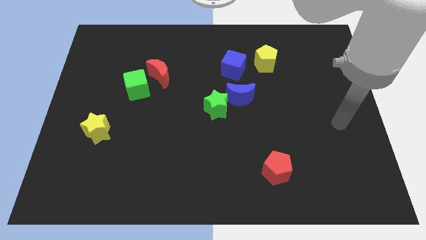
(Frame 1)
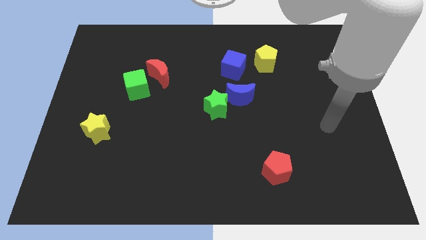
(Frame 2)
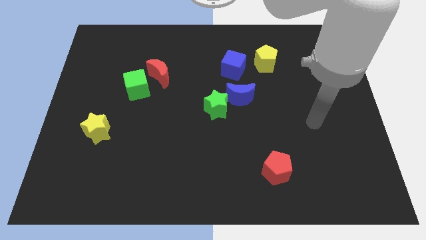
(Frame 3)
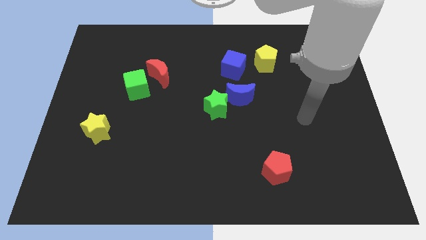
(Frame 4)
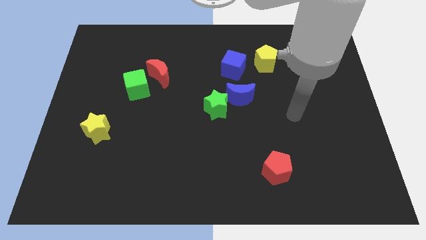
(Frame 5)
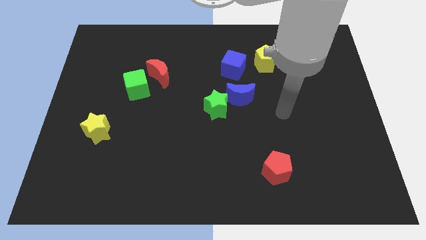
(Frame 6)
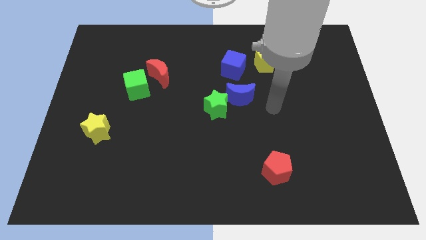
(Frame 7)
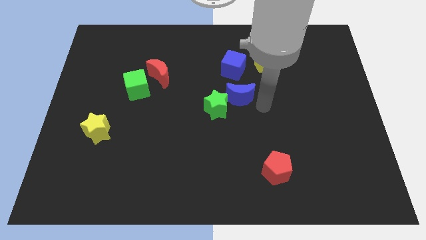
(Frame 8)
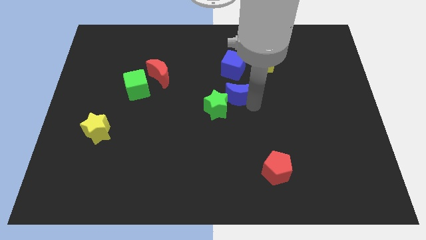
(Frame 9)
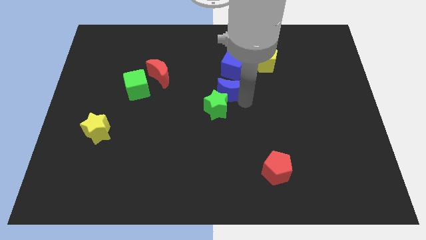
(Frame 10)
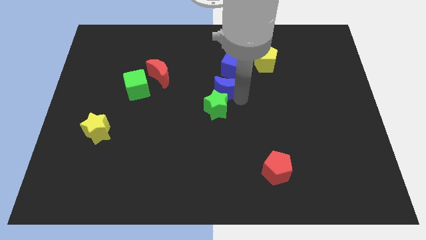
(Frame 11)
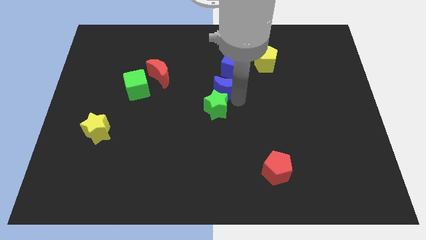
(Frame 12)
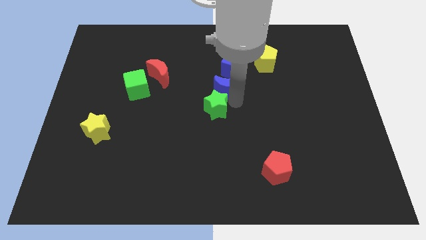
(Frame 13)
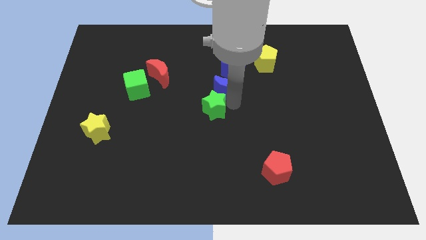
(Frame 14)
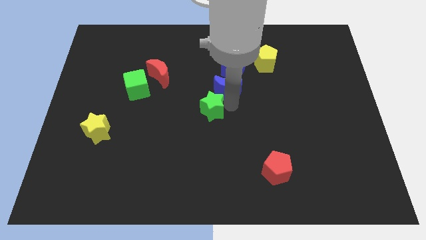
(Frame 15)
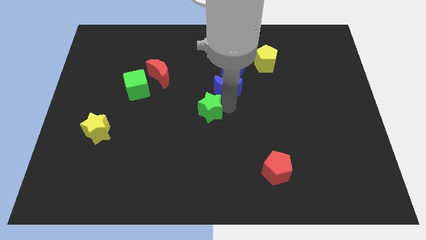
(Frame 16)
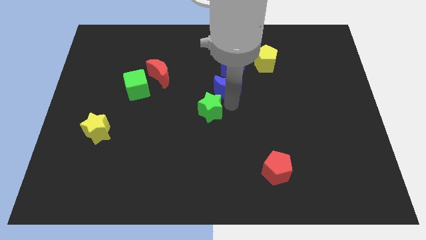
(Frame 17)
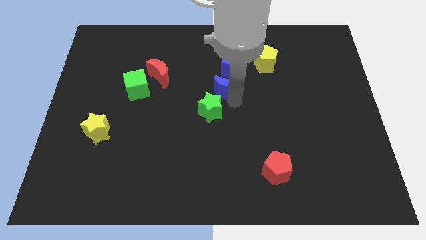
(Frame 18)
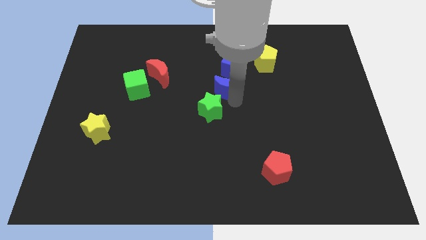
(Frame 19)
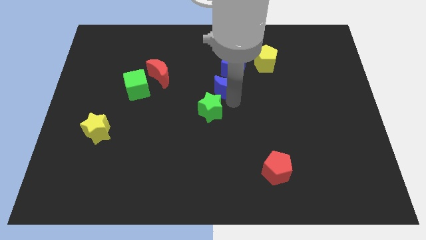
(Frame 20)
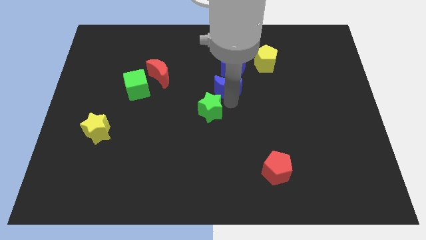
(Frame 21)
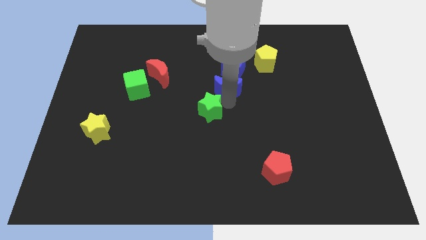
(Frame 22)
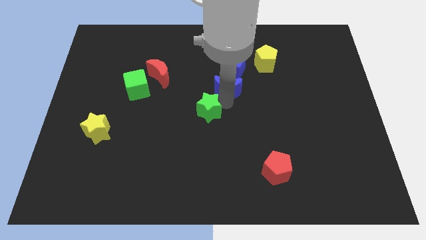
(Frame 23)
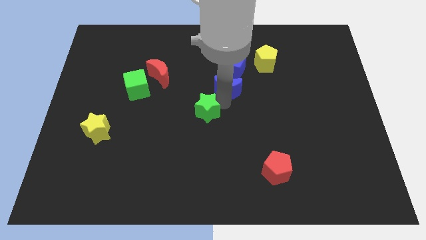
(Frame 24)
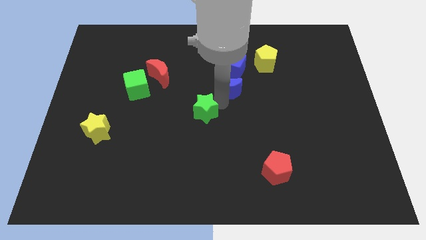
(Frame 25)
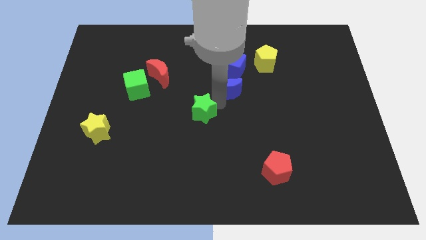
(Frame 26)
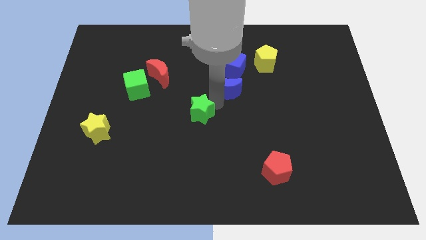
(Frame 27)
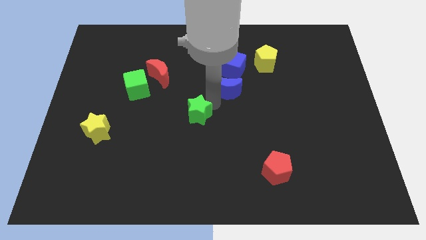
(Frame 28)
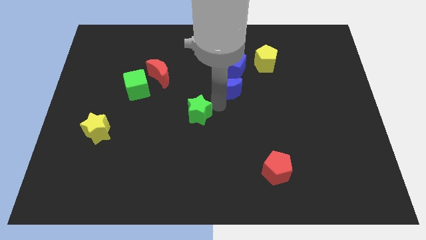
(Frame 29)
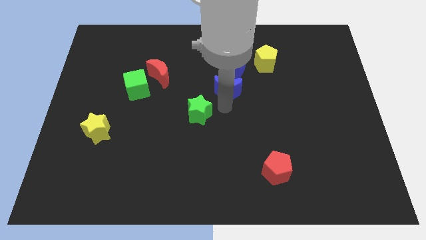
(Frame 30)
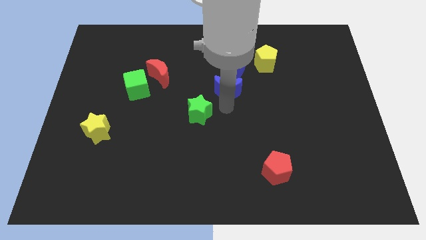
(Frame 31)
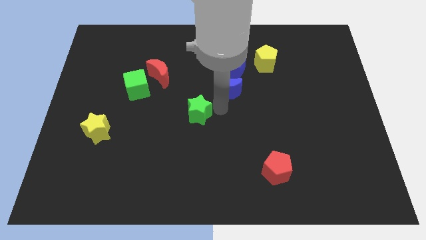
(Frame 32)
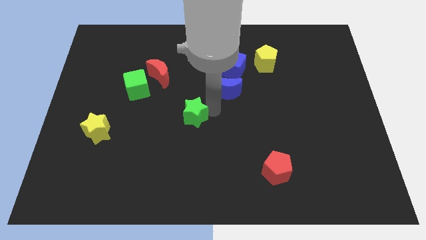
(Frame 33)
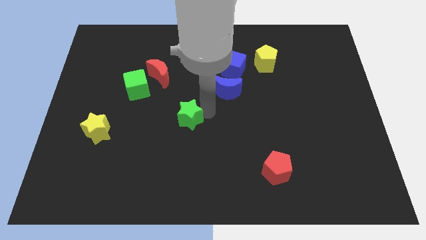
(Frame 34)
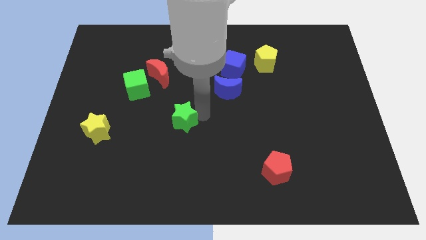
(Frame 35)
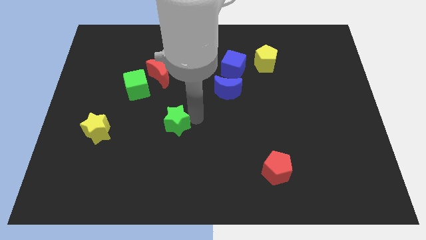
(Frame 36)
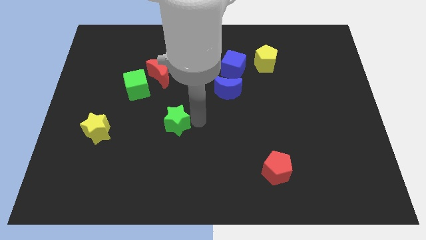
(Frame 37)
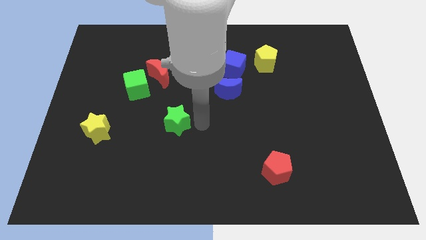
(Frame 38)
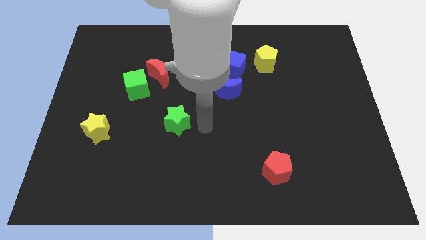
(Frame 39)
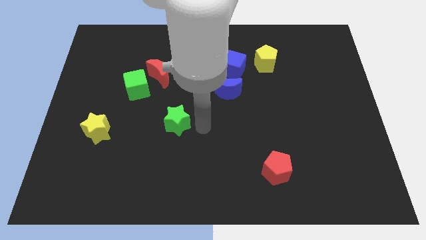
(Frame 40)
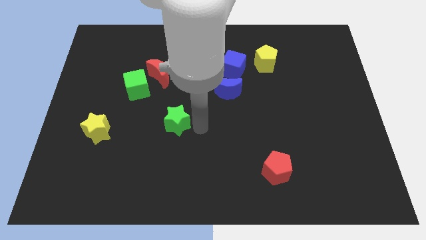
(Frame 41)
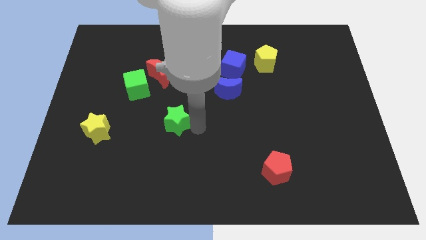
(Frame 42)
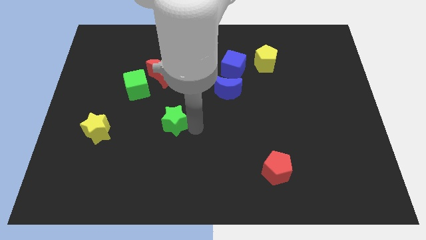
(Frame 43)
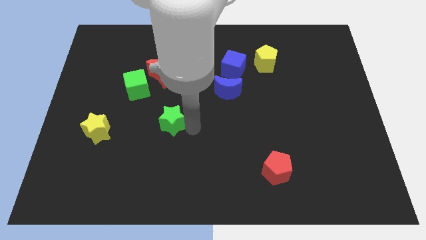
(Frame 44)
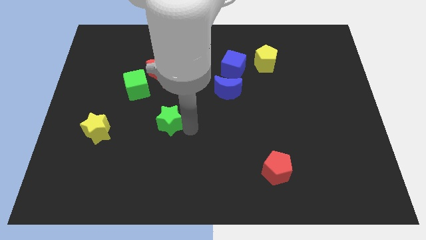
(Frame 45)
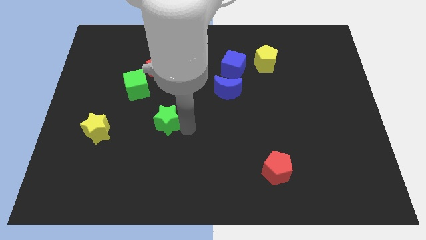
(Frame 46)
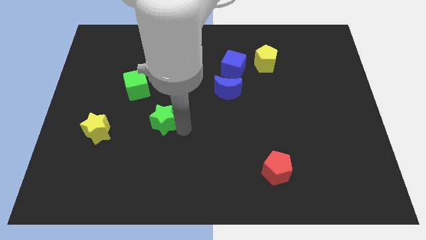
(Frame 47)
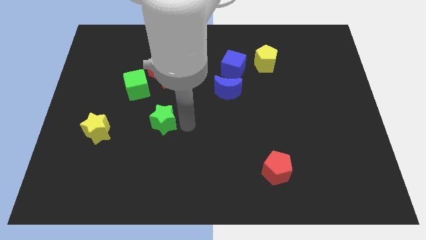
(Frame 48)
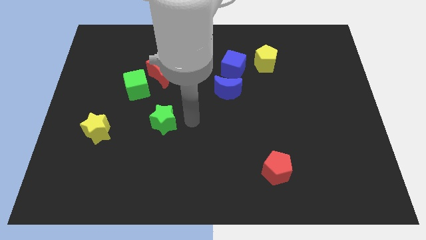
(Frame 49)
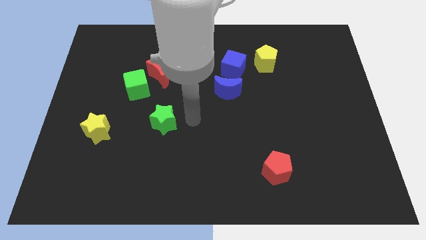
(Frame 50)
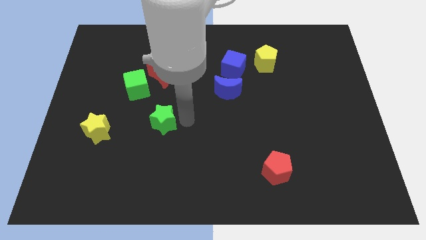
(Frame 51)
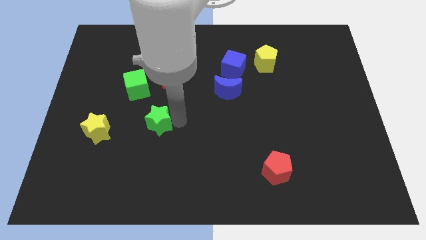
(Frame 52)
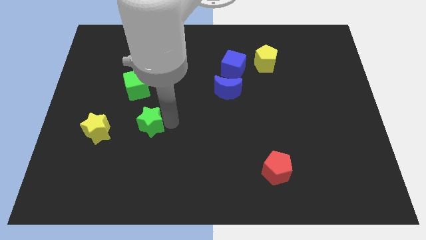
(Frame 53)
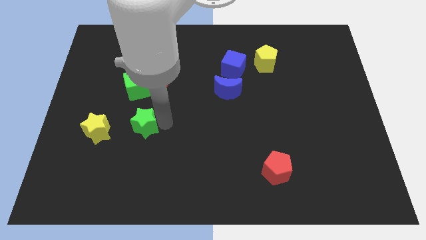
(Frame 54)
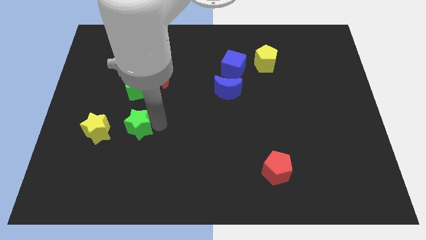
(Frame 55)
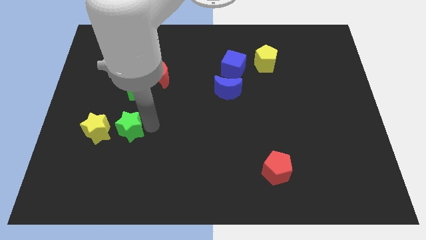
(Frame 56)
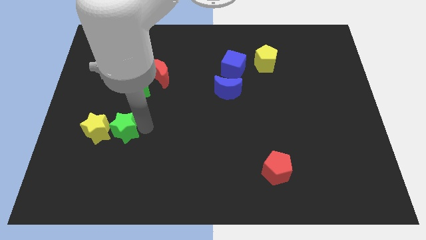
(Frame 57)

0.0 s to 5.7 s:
slide the green star close to the yellow star

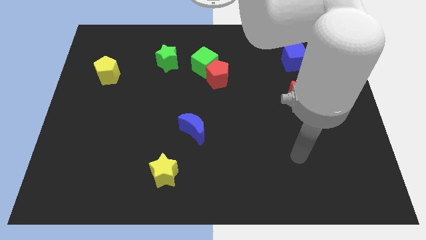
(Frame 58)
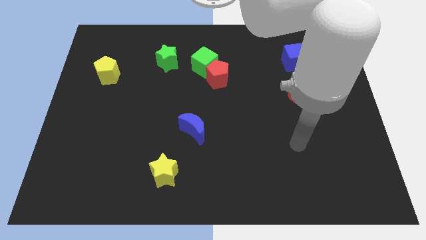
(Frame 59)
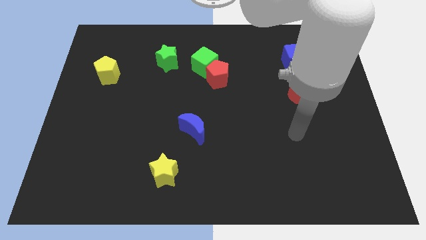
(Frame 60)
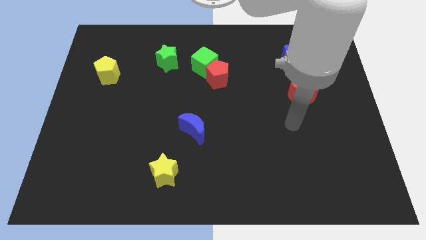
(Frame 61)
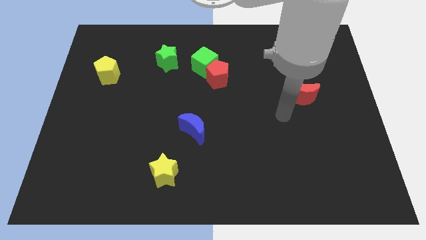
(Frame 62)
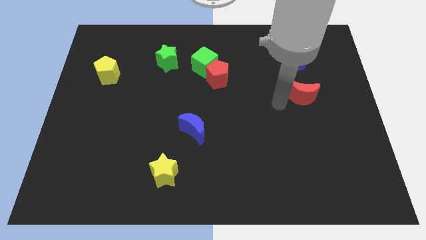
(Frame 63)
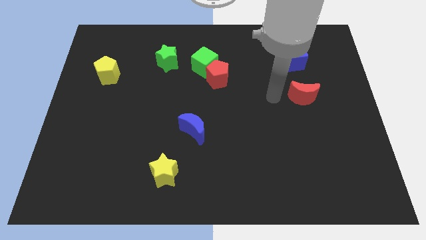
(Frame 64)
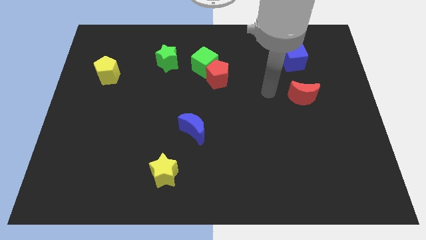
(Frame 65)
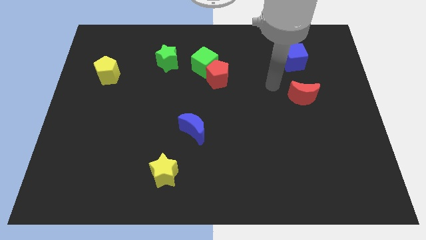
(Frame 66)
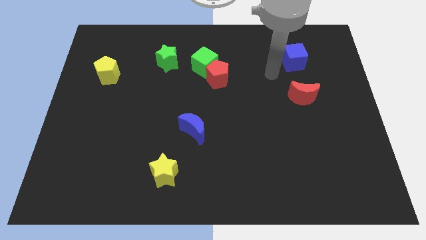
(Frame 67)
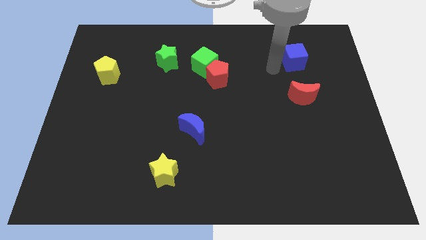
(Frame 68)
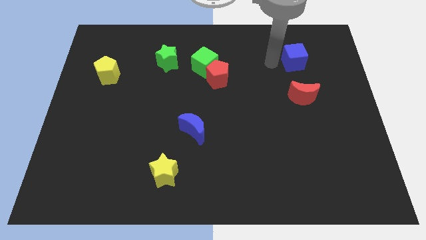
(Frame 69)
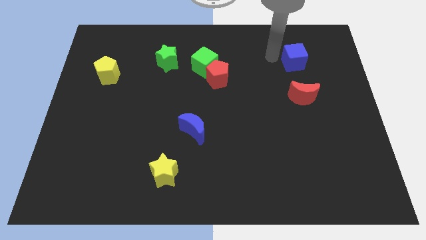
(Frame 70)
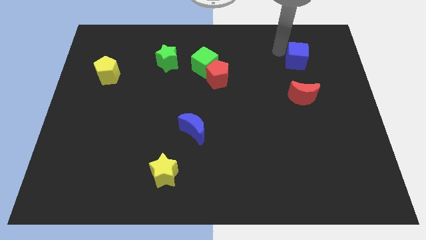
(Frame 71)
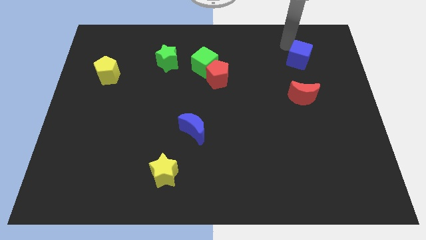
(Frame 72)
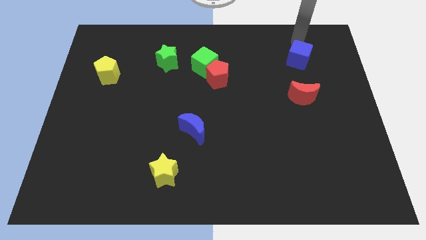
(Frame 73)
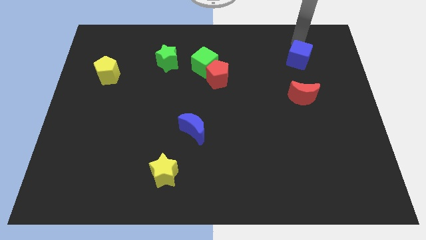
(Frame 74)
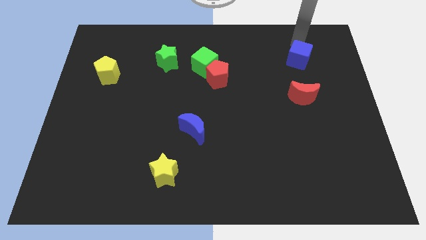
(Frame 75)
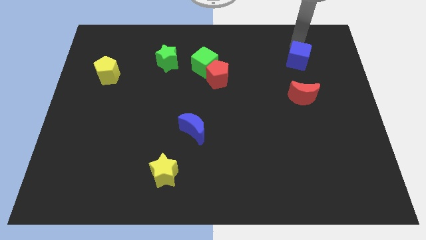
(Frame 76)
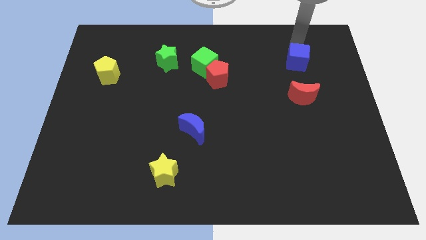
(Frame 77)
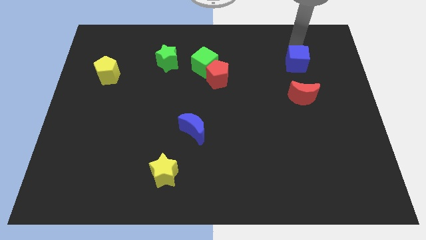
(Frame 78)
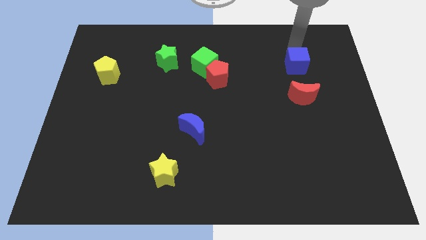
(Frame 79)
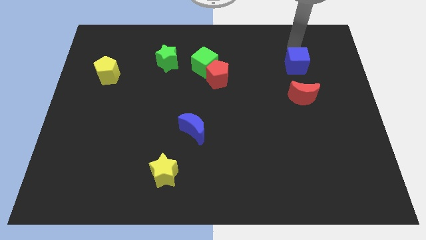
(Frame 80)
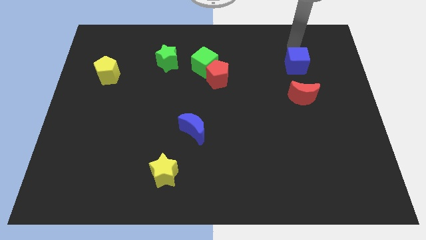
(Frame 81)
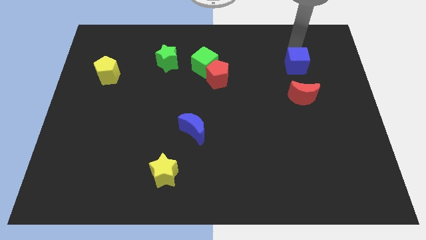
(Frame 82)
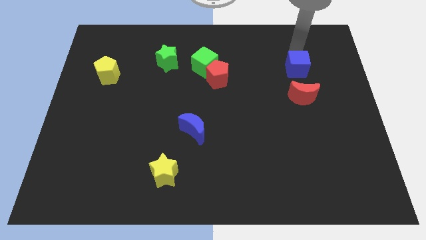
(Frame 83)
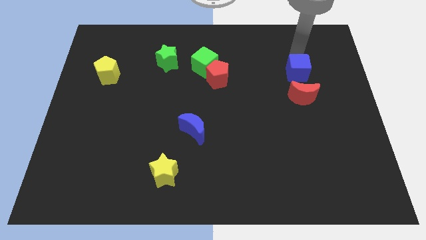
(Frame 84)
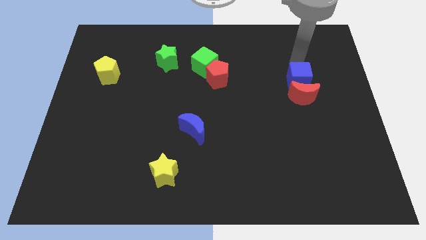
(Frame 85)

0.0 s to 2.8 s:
slide the blue cube towards the red moon
